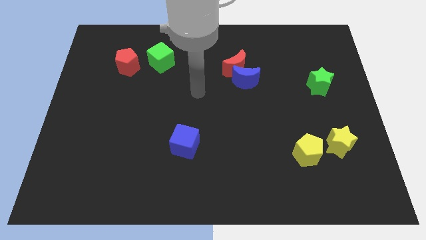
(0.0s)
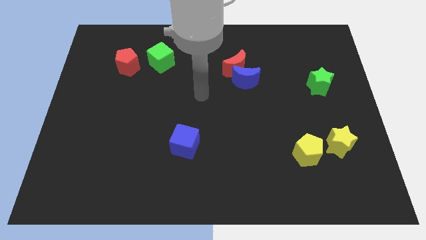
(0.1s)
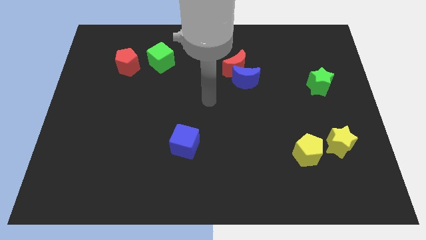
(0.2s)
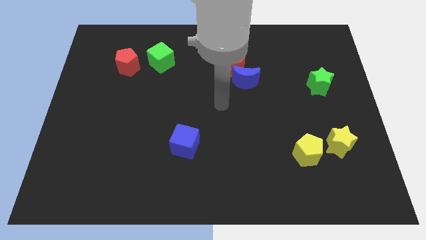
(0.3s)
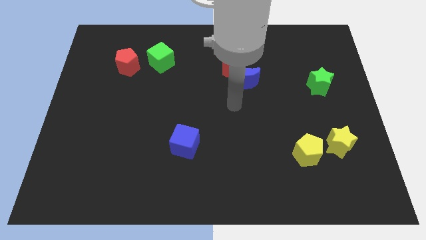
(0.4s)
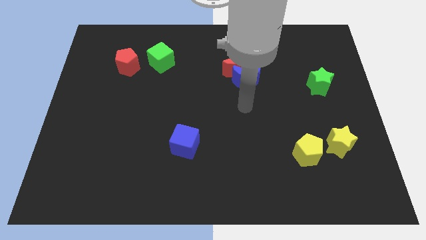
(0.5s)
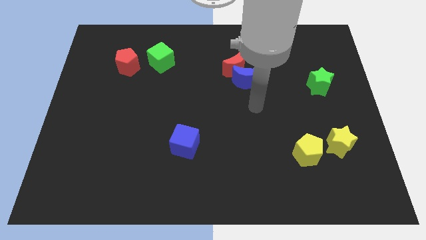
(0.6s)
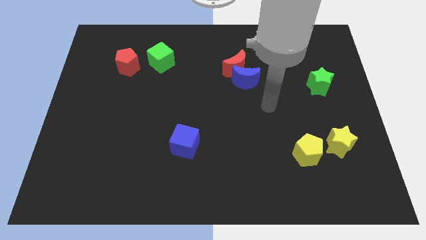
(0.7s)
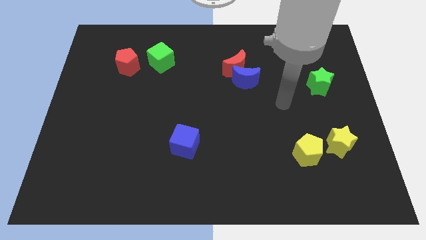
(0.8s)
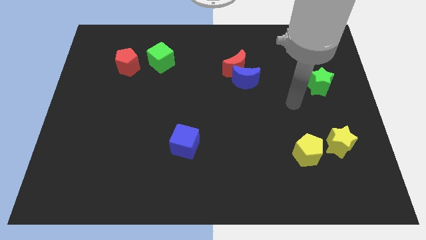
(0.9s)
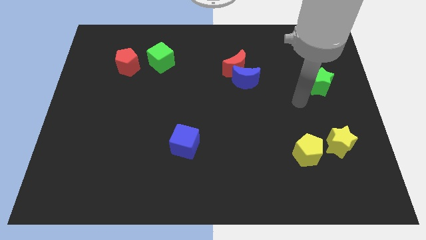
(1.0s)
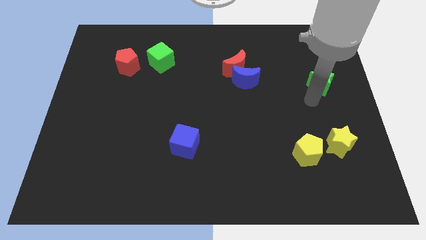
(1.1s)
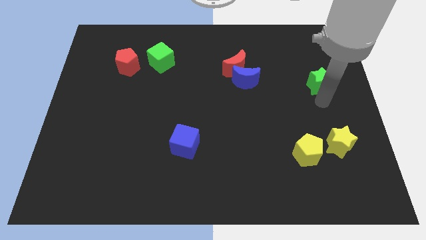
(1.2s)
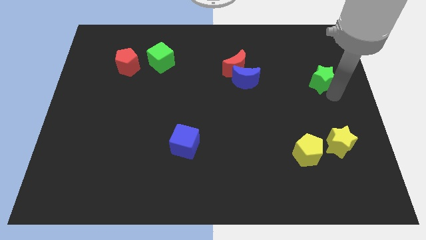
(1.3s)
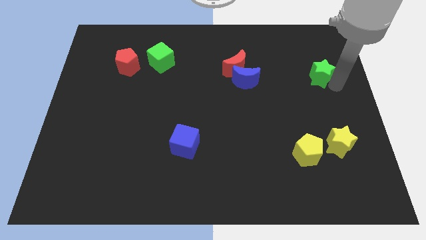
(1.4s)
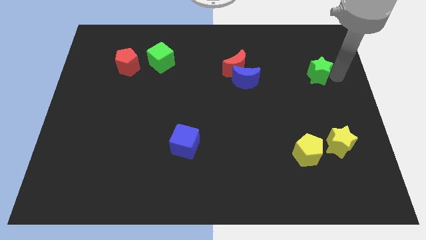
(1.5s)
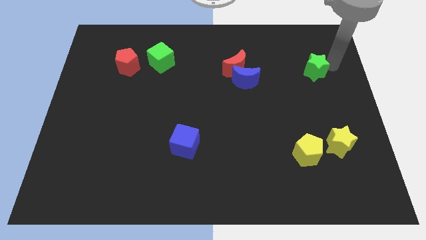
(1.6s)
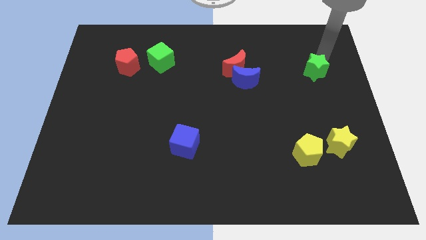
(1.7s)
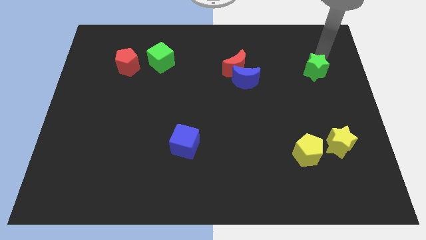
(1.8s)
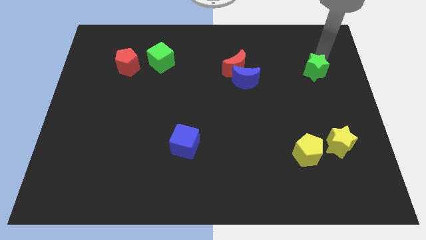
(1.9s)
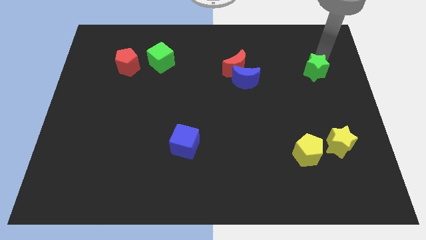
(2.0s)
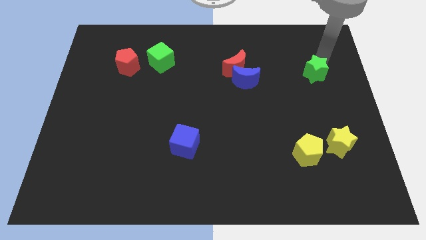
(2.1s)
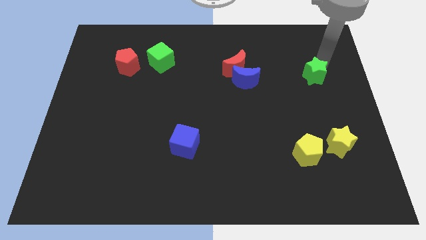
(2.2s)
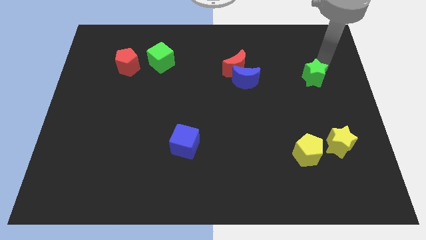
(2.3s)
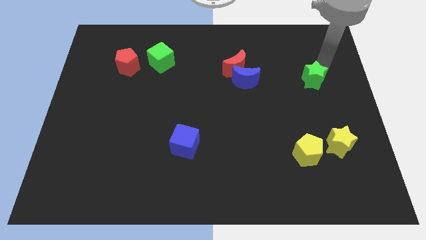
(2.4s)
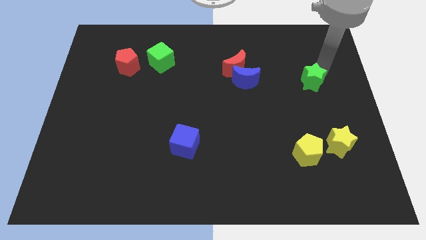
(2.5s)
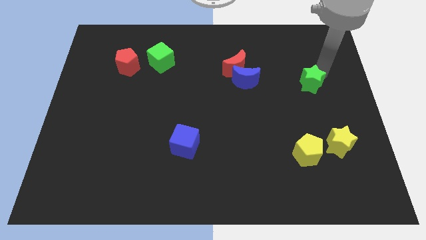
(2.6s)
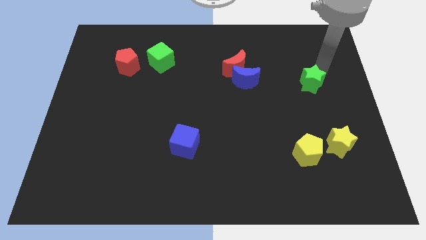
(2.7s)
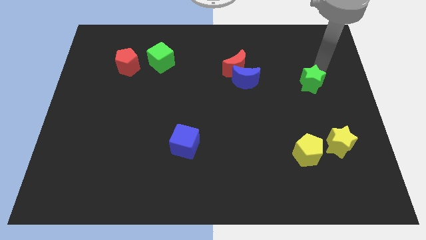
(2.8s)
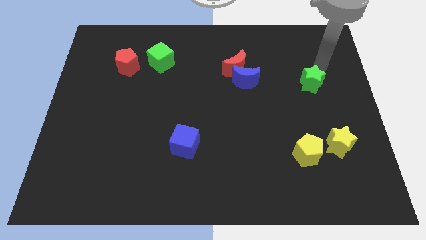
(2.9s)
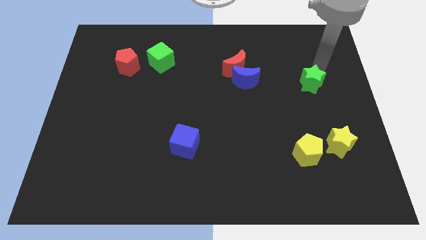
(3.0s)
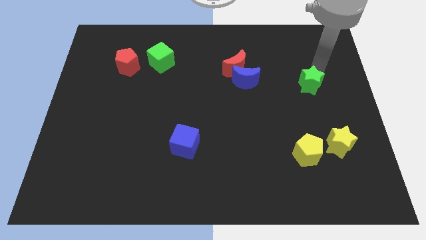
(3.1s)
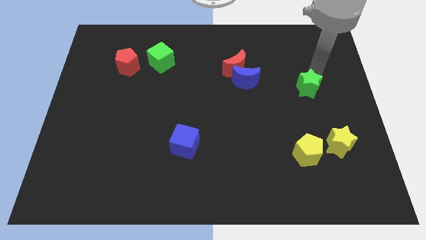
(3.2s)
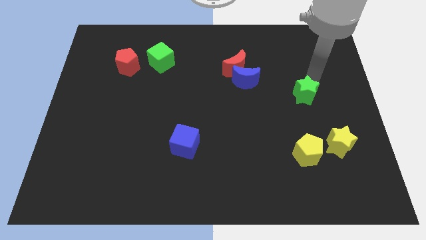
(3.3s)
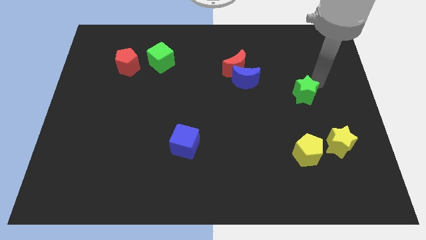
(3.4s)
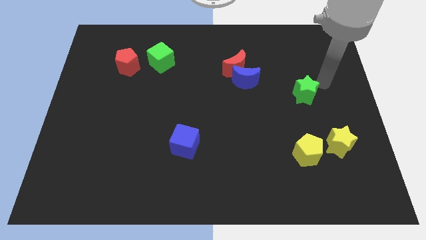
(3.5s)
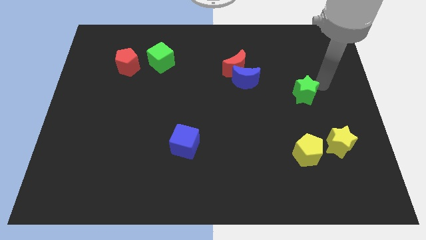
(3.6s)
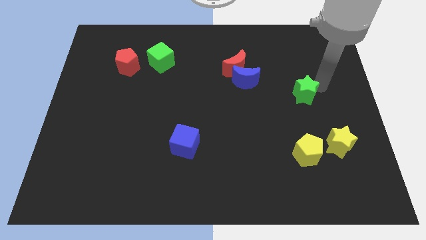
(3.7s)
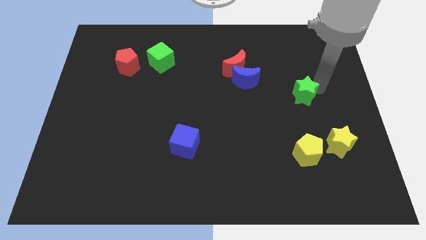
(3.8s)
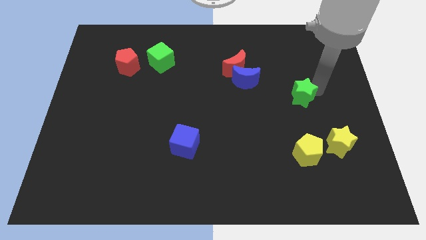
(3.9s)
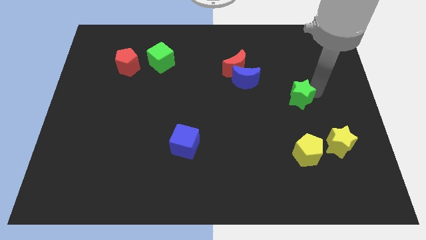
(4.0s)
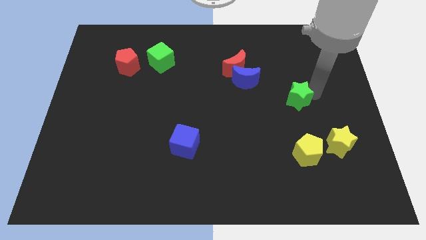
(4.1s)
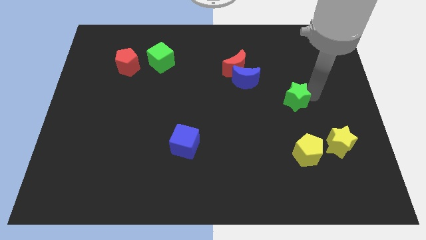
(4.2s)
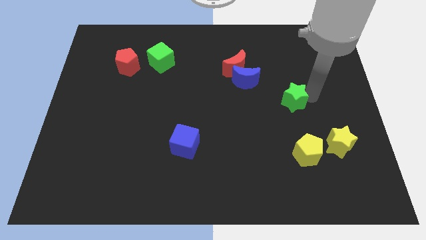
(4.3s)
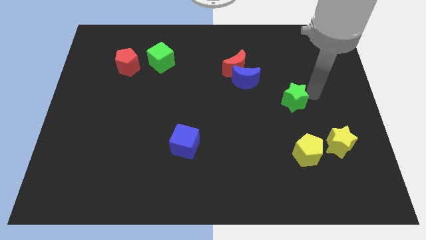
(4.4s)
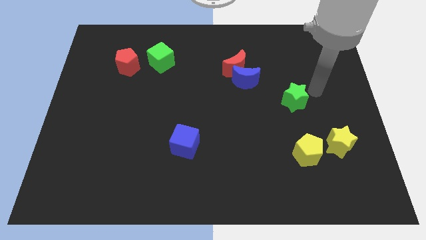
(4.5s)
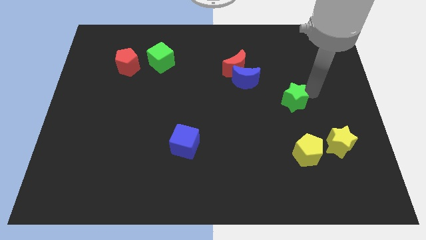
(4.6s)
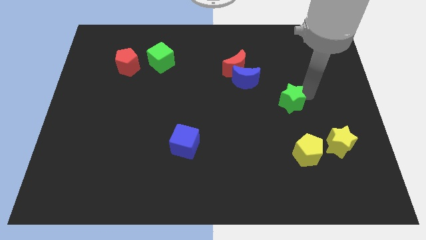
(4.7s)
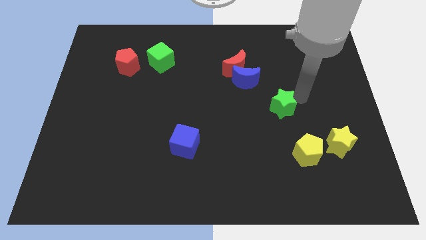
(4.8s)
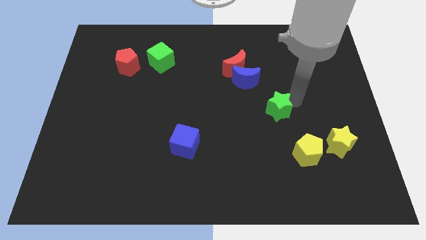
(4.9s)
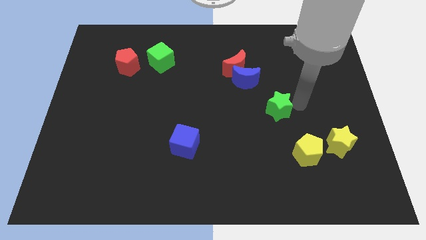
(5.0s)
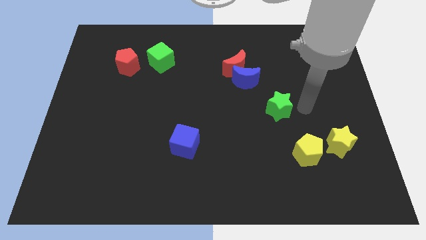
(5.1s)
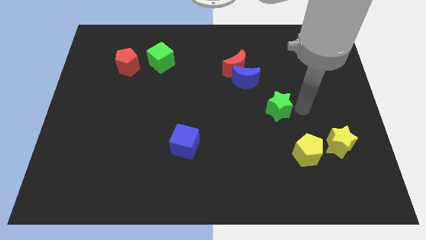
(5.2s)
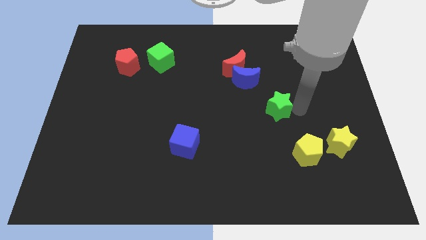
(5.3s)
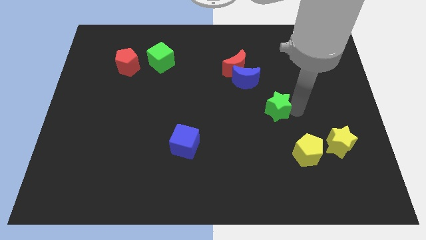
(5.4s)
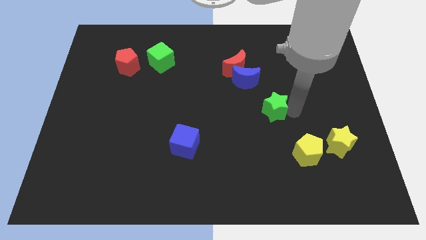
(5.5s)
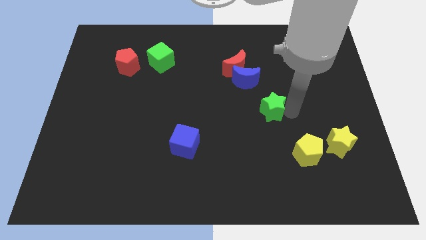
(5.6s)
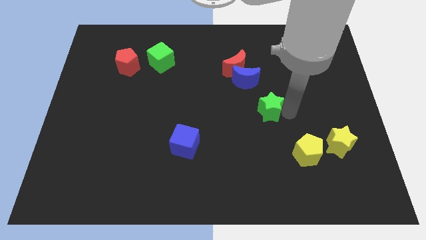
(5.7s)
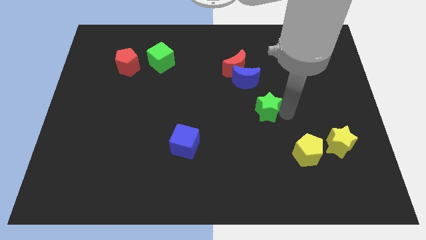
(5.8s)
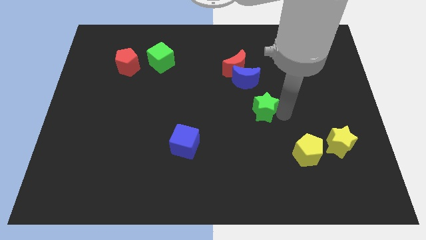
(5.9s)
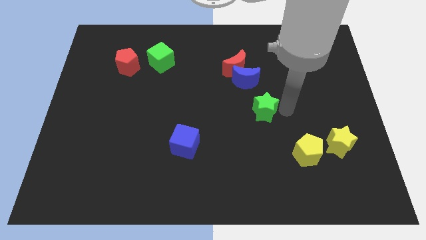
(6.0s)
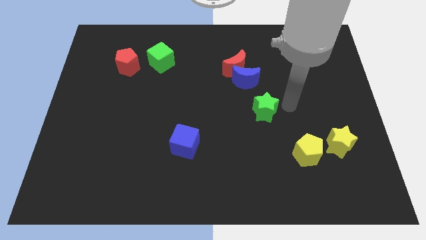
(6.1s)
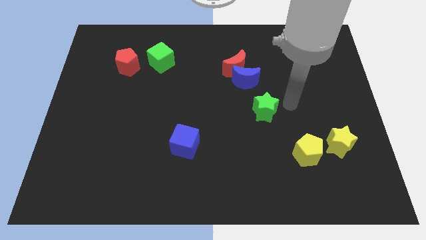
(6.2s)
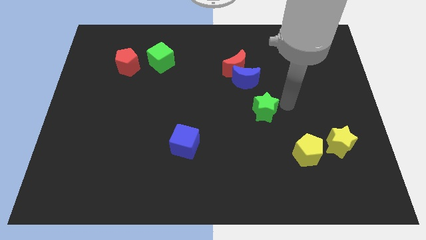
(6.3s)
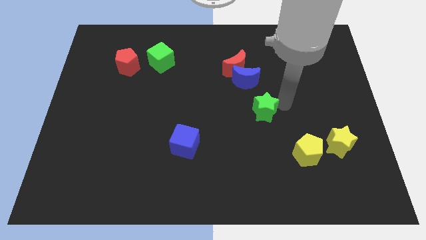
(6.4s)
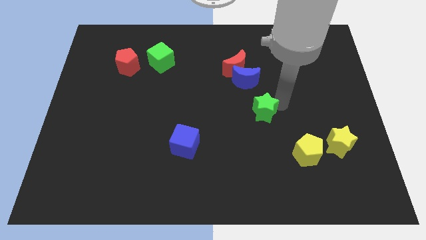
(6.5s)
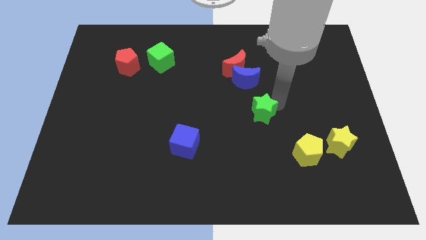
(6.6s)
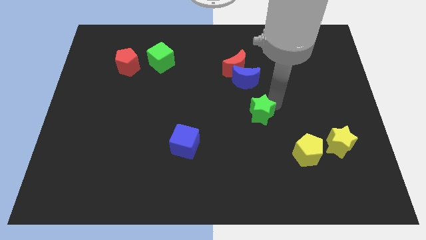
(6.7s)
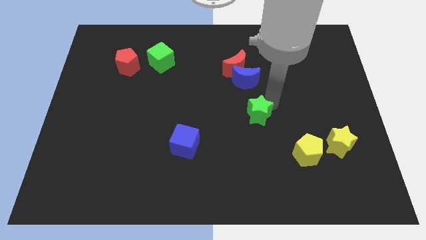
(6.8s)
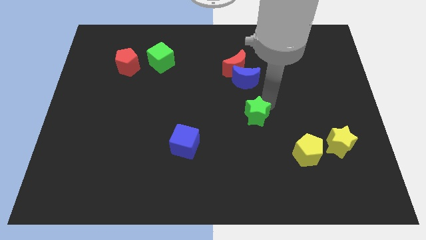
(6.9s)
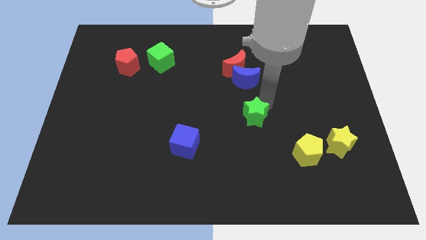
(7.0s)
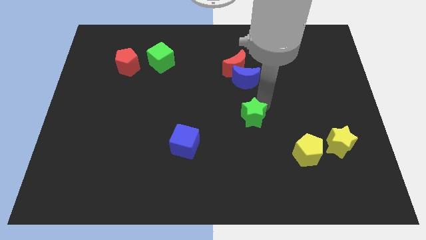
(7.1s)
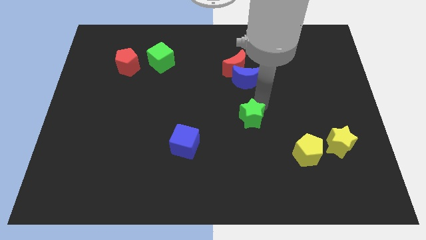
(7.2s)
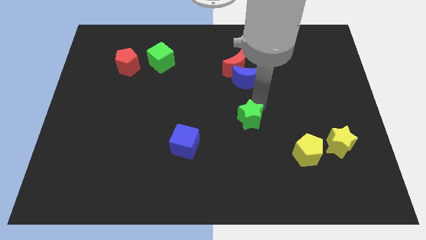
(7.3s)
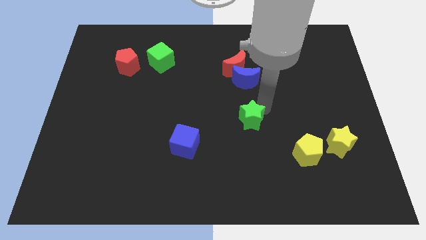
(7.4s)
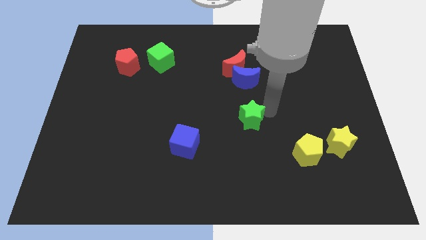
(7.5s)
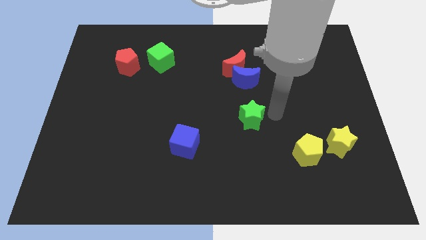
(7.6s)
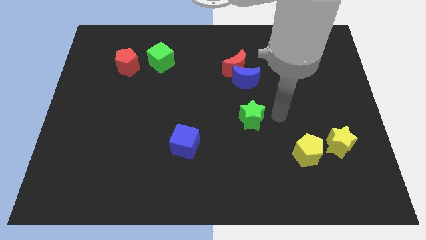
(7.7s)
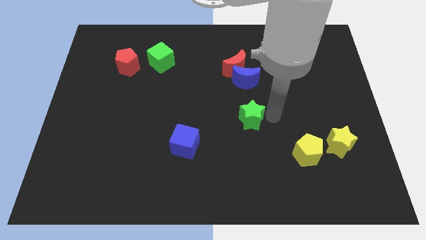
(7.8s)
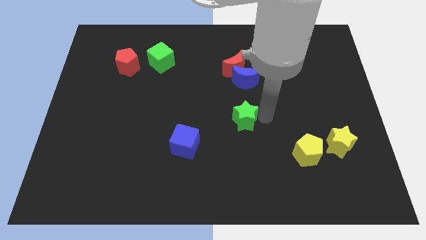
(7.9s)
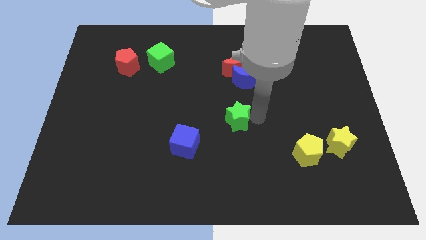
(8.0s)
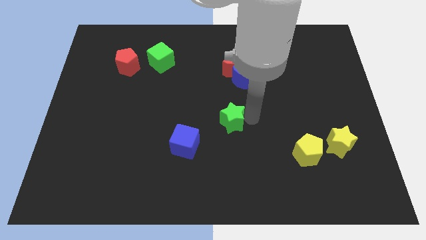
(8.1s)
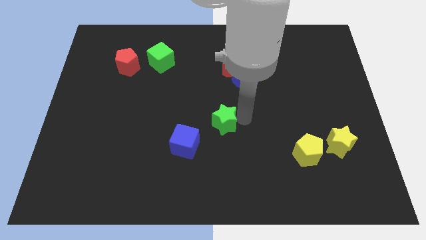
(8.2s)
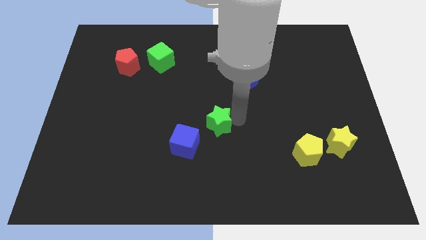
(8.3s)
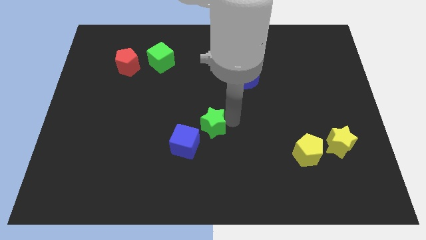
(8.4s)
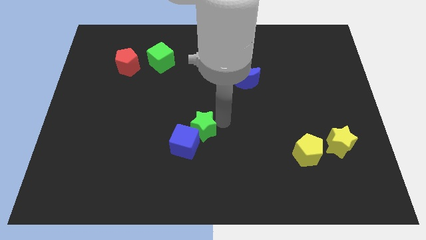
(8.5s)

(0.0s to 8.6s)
slide the green star to the blue cube
